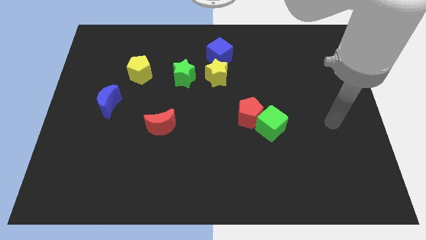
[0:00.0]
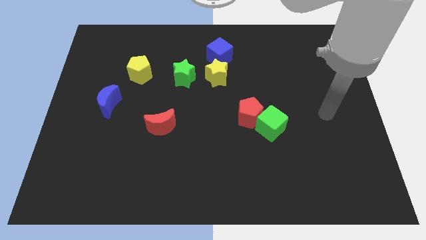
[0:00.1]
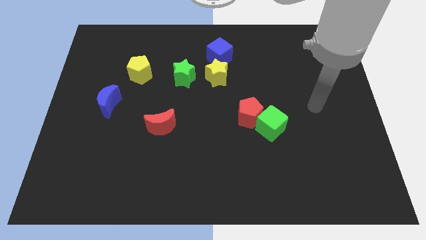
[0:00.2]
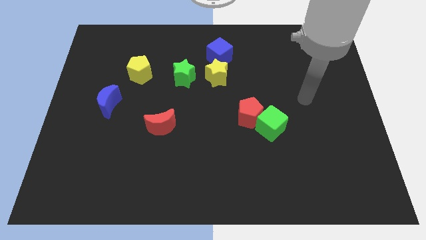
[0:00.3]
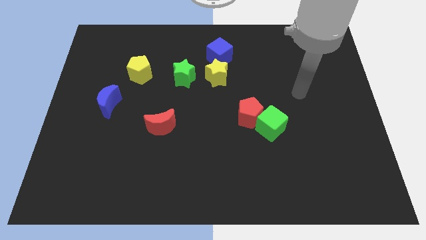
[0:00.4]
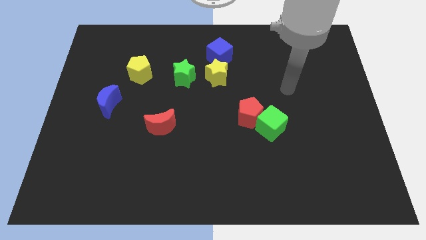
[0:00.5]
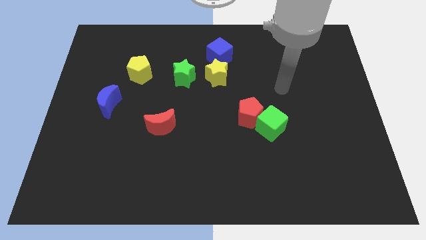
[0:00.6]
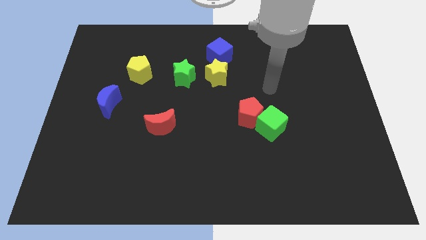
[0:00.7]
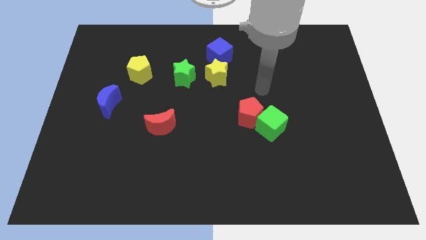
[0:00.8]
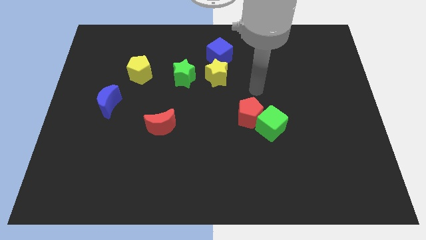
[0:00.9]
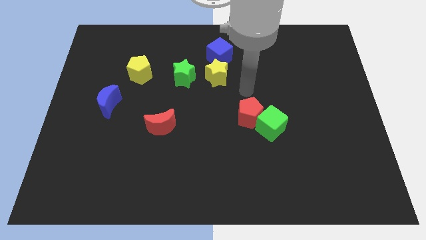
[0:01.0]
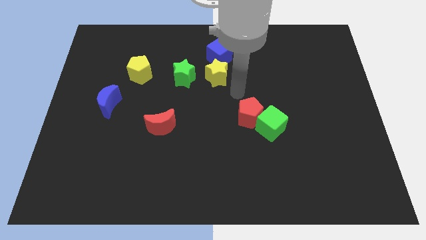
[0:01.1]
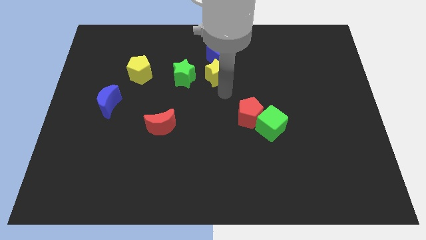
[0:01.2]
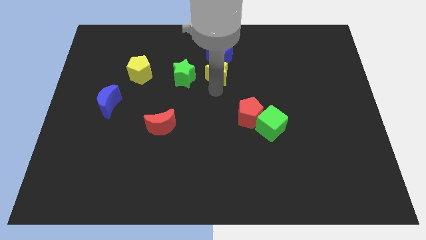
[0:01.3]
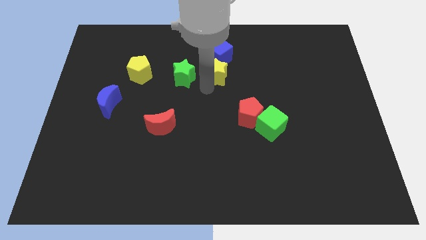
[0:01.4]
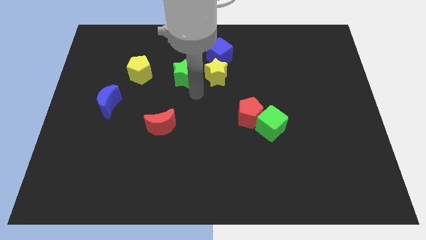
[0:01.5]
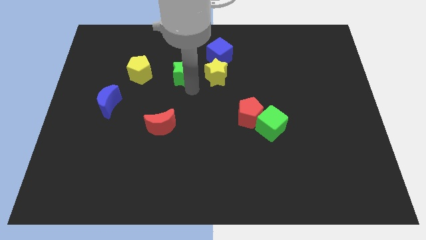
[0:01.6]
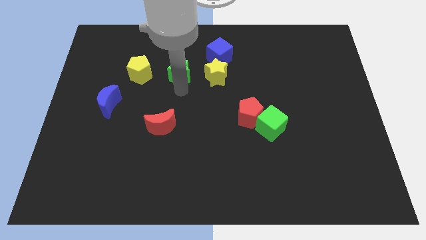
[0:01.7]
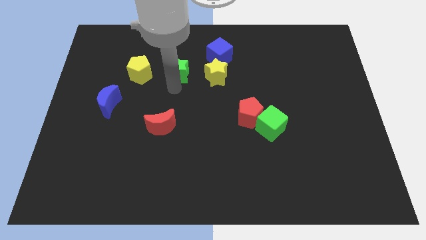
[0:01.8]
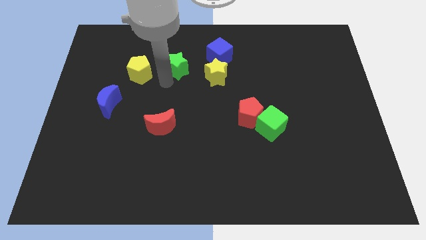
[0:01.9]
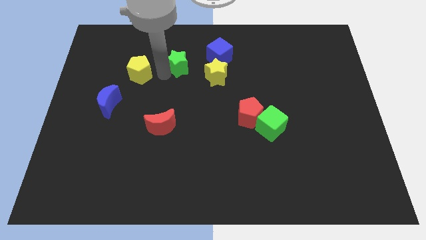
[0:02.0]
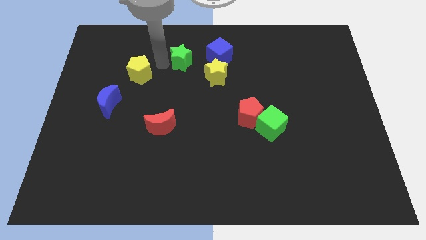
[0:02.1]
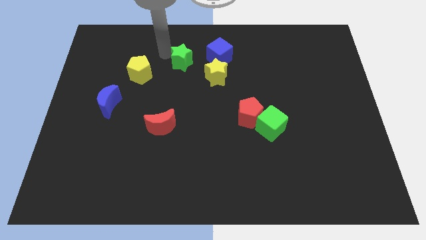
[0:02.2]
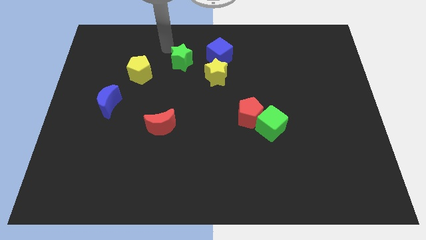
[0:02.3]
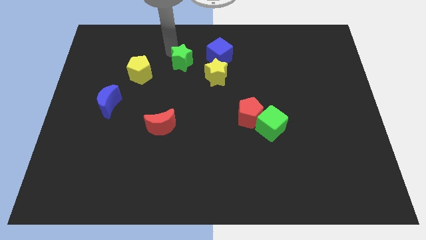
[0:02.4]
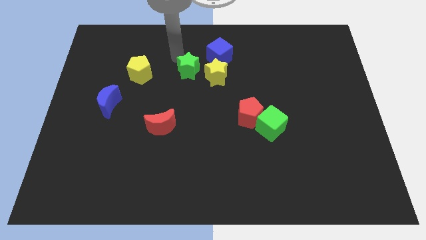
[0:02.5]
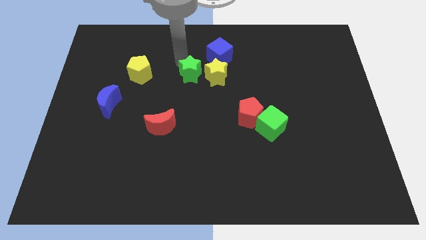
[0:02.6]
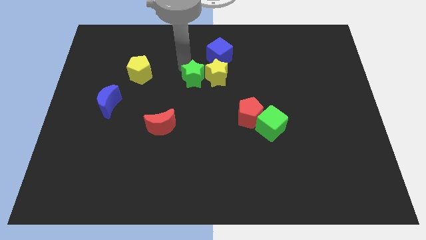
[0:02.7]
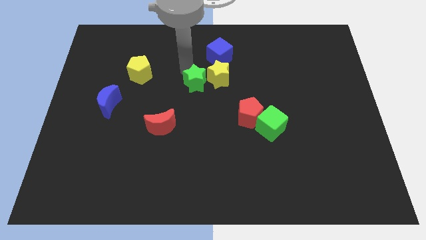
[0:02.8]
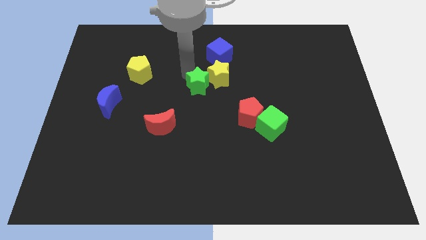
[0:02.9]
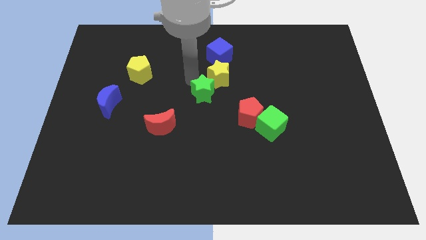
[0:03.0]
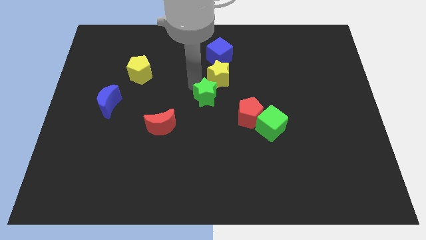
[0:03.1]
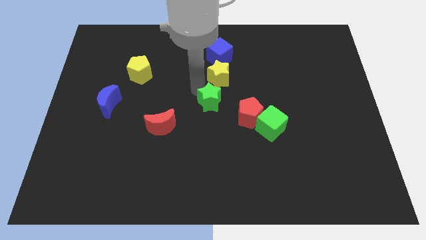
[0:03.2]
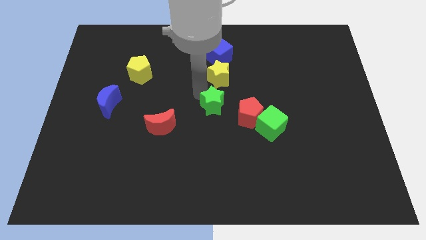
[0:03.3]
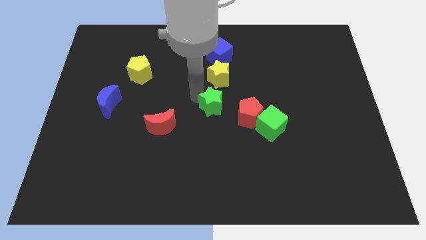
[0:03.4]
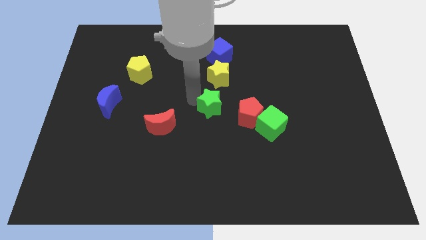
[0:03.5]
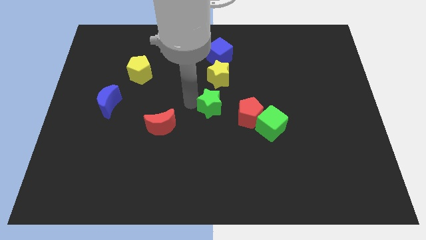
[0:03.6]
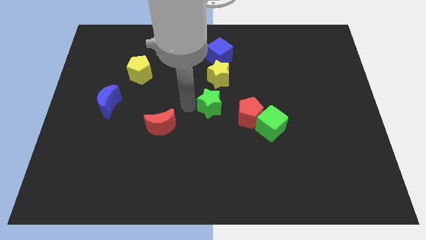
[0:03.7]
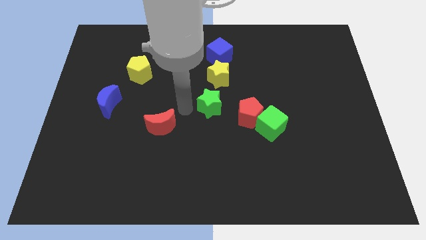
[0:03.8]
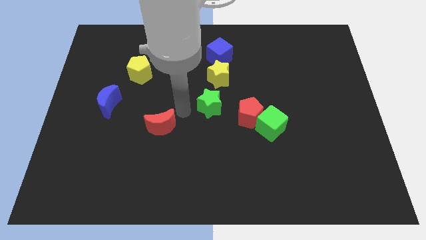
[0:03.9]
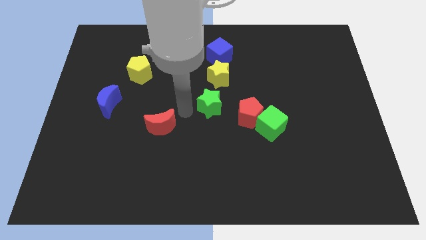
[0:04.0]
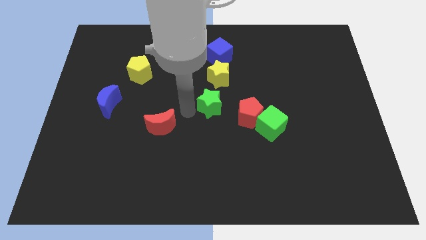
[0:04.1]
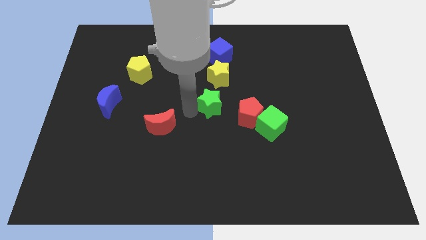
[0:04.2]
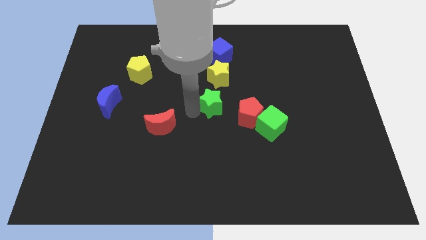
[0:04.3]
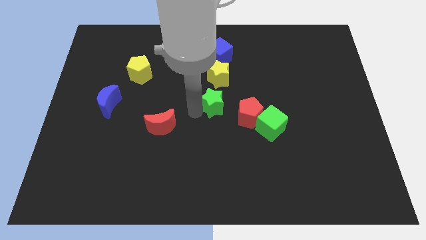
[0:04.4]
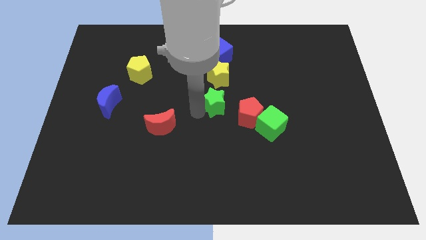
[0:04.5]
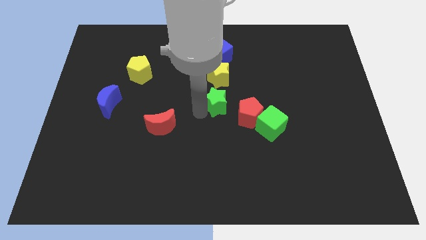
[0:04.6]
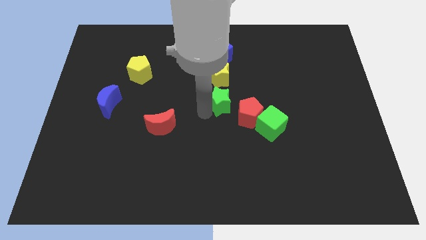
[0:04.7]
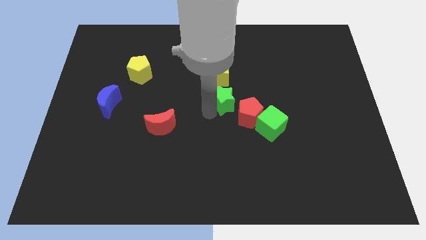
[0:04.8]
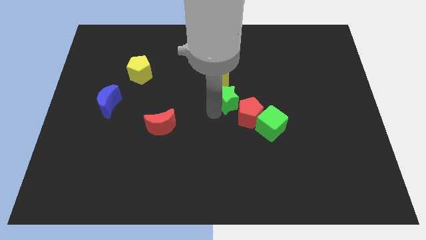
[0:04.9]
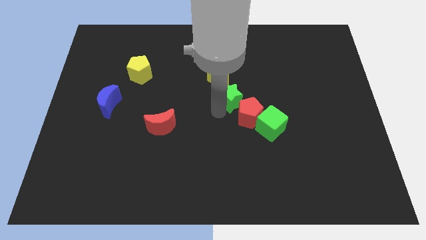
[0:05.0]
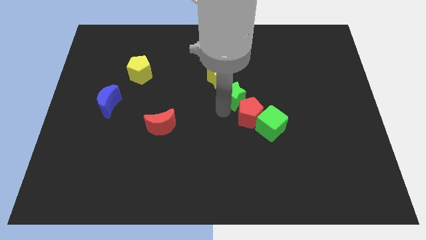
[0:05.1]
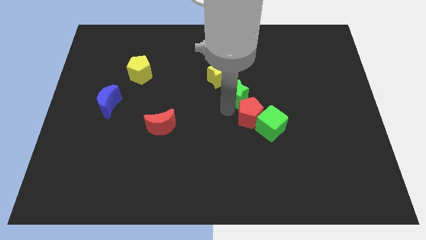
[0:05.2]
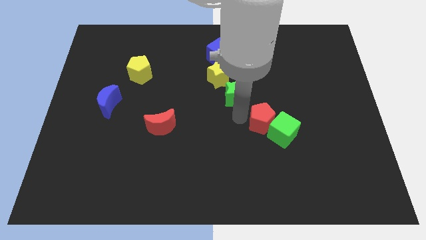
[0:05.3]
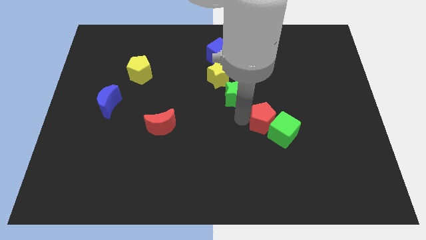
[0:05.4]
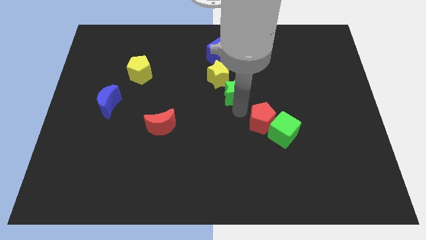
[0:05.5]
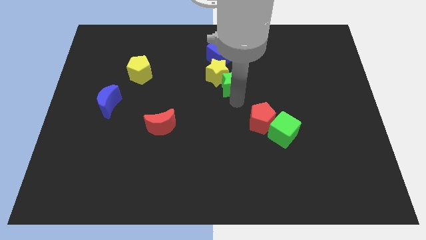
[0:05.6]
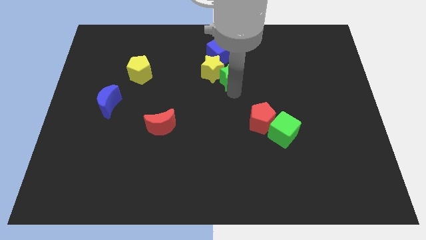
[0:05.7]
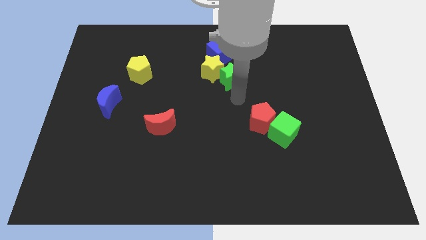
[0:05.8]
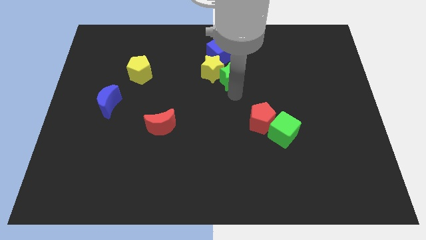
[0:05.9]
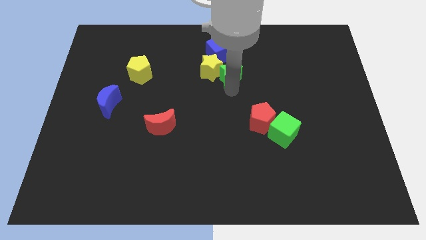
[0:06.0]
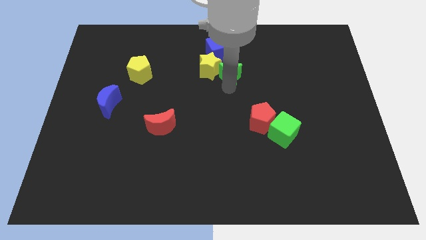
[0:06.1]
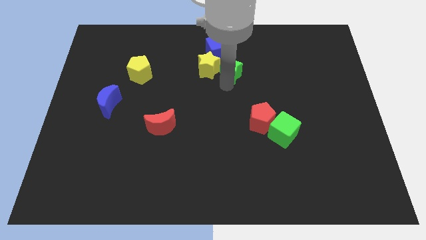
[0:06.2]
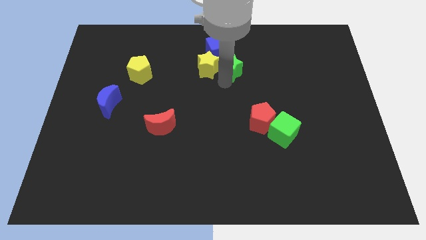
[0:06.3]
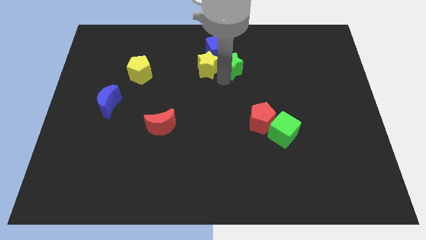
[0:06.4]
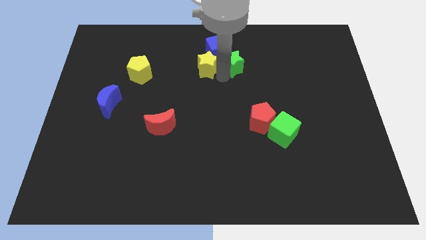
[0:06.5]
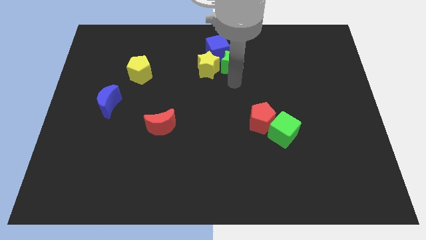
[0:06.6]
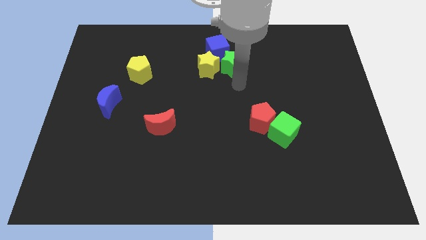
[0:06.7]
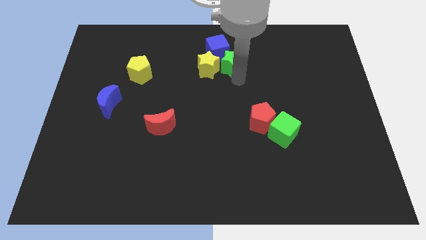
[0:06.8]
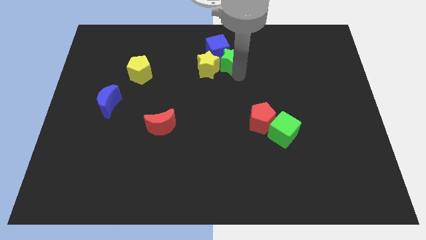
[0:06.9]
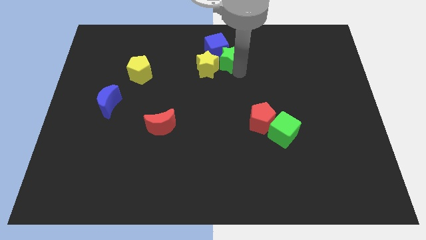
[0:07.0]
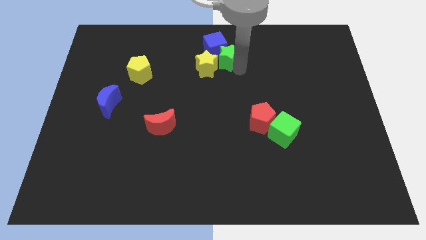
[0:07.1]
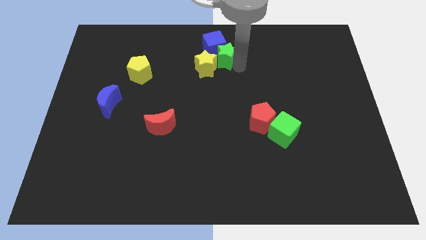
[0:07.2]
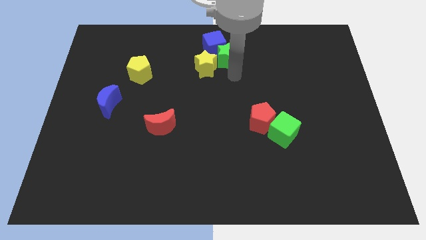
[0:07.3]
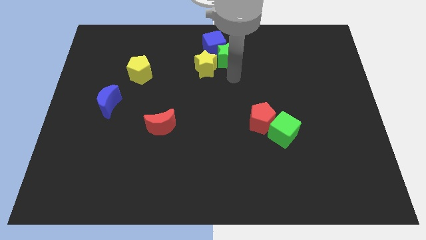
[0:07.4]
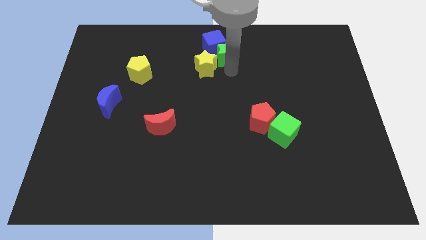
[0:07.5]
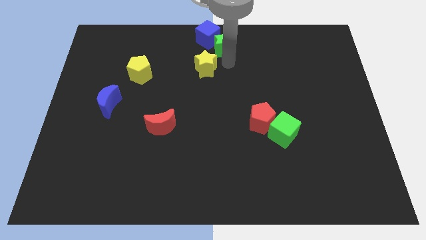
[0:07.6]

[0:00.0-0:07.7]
push the green star to the top side
